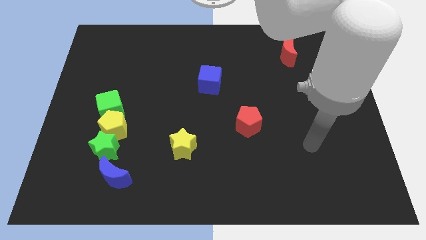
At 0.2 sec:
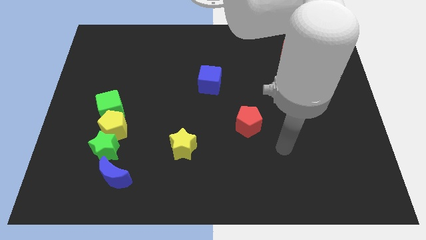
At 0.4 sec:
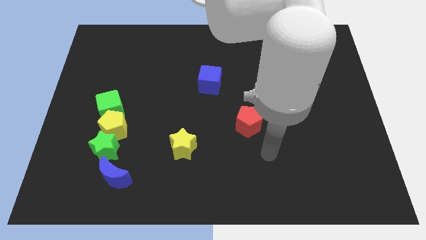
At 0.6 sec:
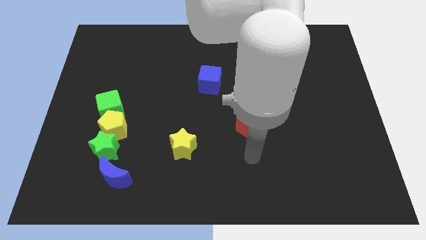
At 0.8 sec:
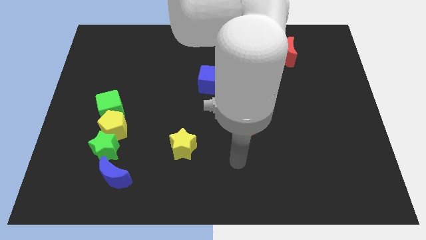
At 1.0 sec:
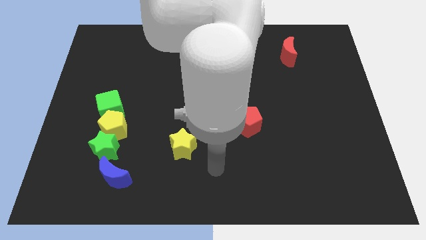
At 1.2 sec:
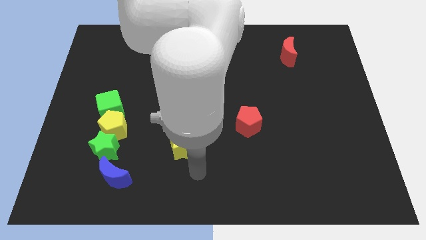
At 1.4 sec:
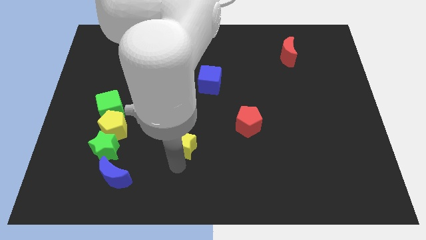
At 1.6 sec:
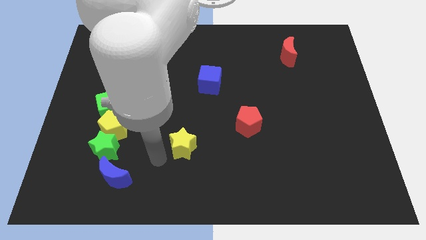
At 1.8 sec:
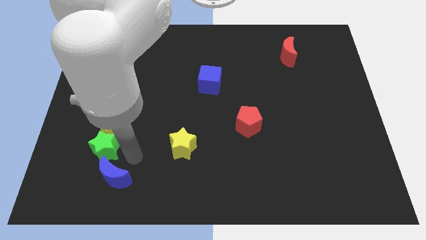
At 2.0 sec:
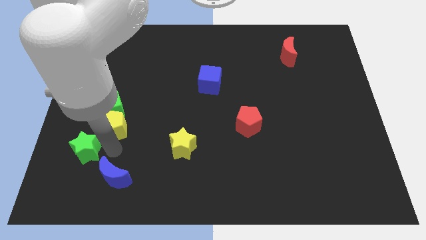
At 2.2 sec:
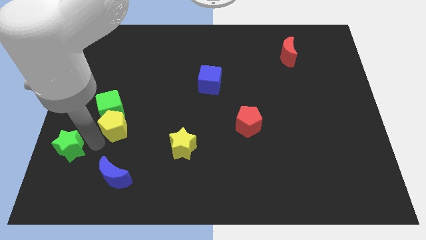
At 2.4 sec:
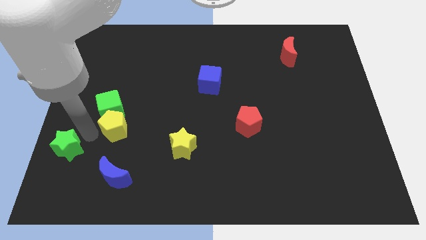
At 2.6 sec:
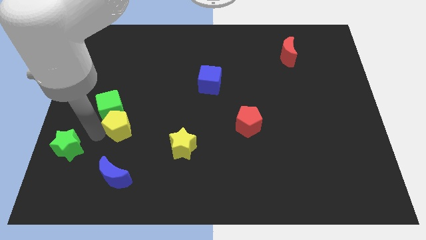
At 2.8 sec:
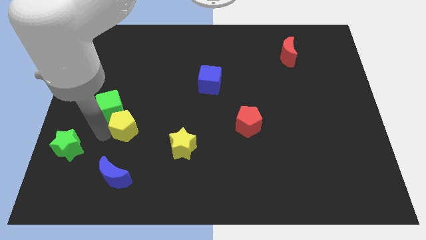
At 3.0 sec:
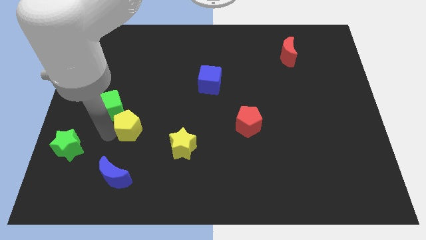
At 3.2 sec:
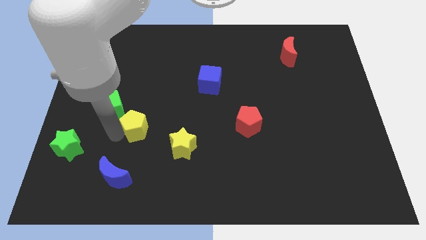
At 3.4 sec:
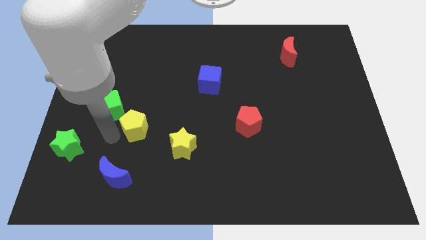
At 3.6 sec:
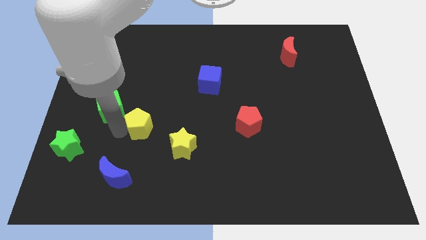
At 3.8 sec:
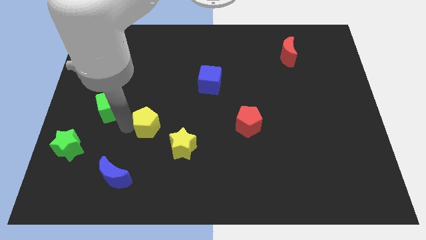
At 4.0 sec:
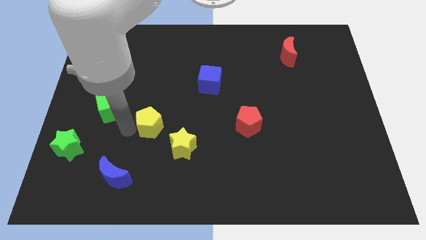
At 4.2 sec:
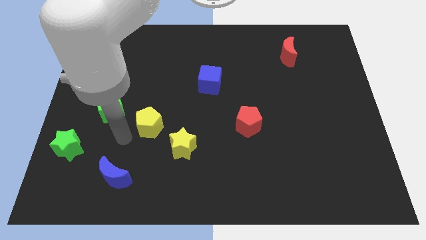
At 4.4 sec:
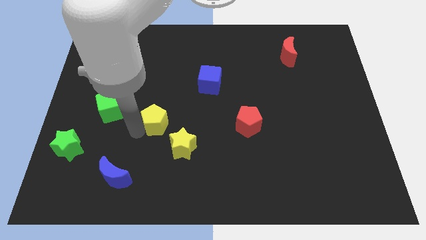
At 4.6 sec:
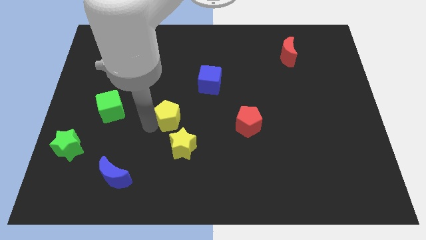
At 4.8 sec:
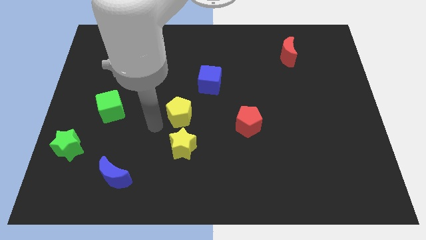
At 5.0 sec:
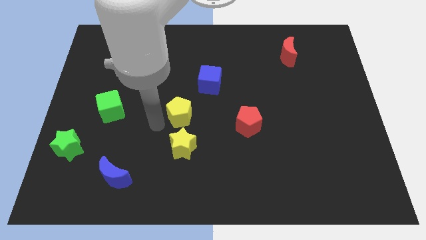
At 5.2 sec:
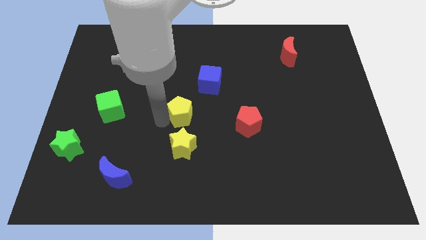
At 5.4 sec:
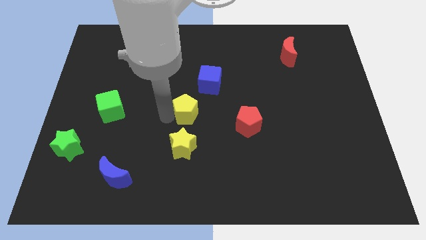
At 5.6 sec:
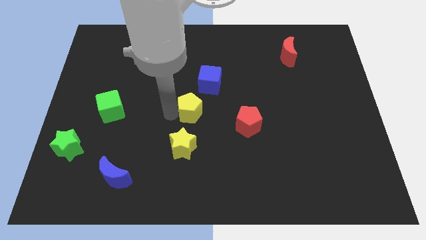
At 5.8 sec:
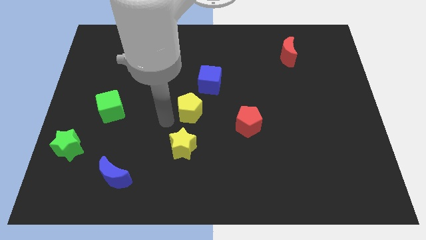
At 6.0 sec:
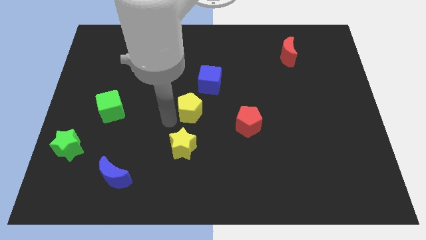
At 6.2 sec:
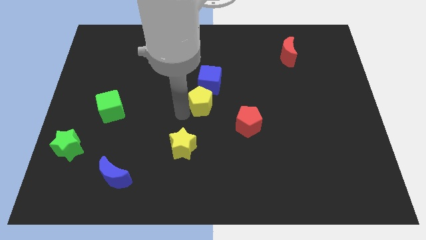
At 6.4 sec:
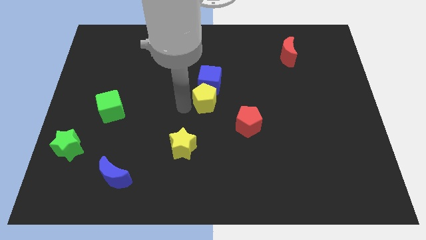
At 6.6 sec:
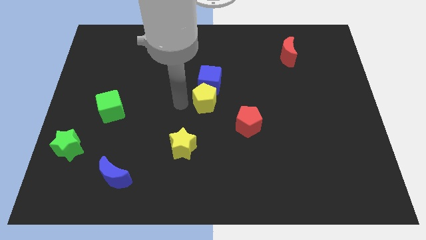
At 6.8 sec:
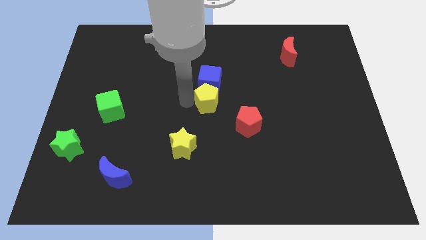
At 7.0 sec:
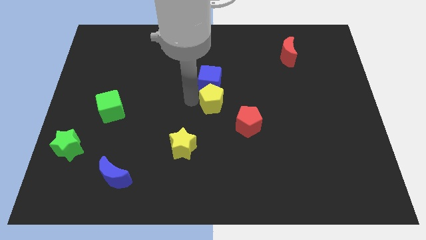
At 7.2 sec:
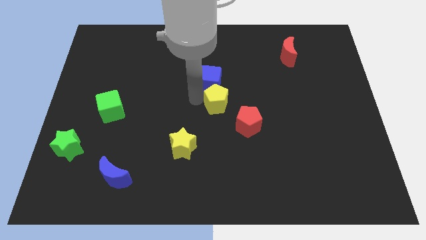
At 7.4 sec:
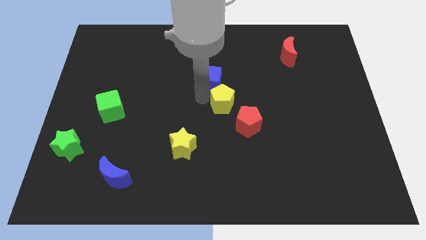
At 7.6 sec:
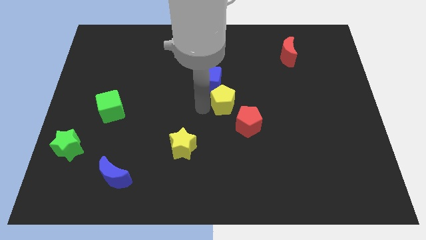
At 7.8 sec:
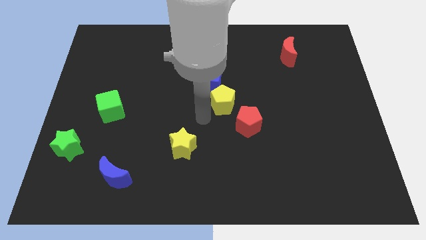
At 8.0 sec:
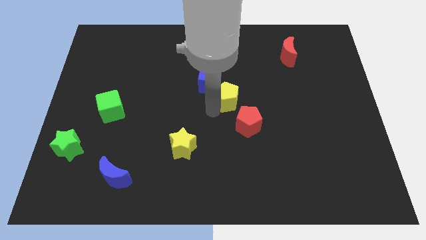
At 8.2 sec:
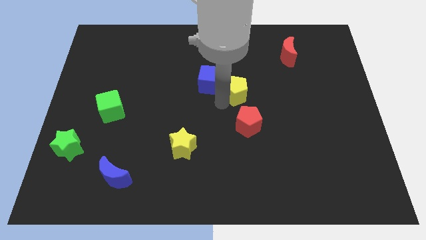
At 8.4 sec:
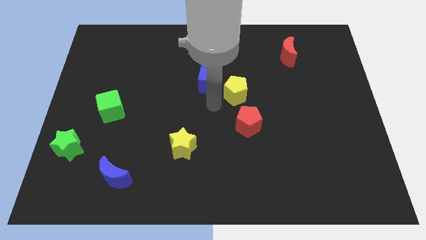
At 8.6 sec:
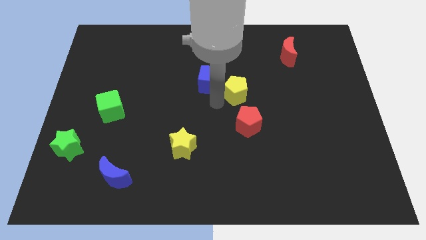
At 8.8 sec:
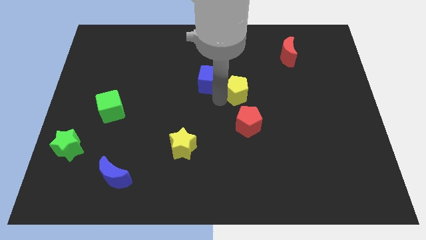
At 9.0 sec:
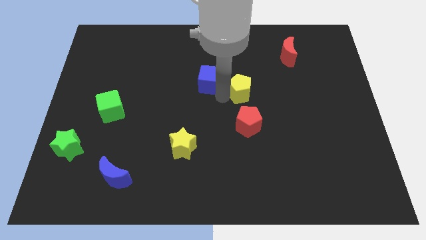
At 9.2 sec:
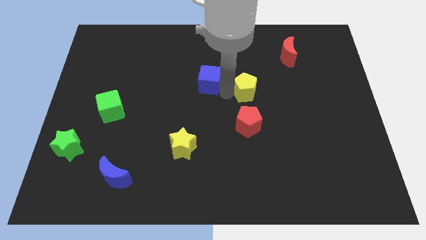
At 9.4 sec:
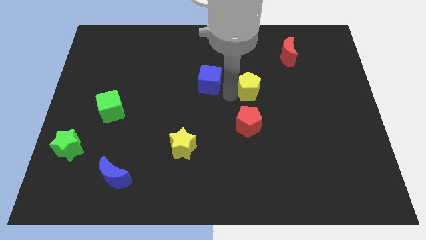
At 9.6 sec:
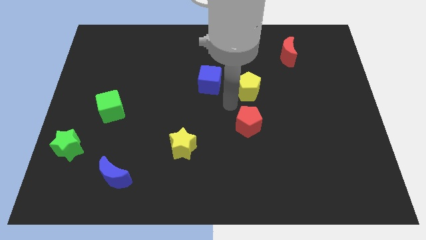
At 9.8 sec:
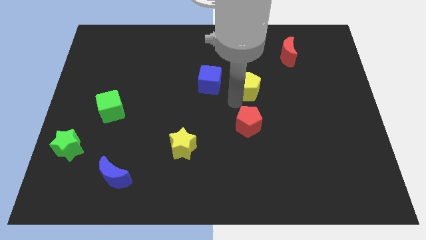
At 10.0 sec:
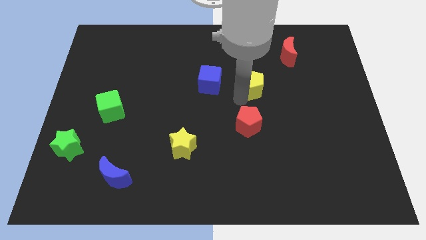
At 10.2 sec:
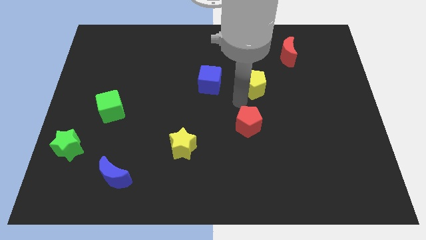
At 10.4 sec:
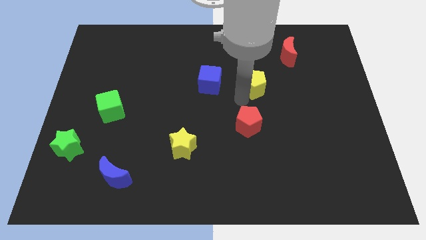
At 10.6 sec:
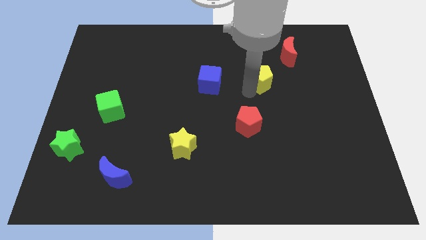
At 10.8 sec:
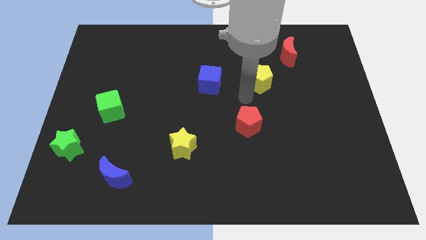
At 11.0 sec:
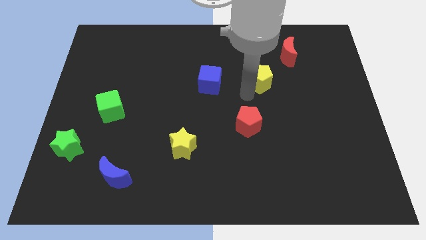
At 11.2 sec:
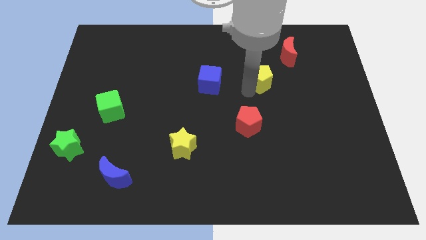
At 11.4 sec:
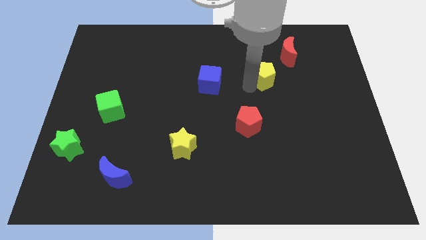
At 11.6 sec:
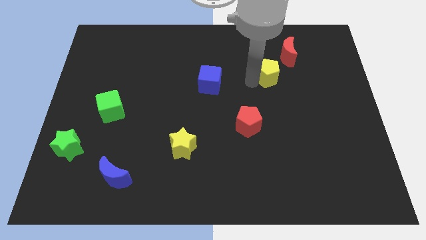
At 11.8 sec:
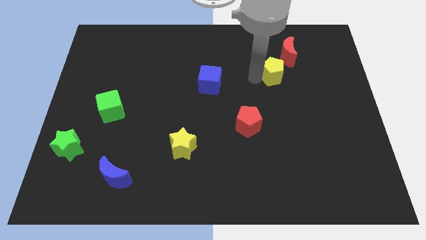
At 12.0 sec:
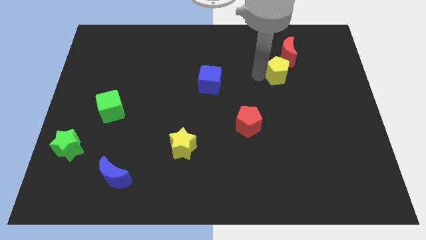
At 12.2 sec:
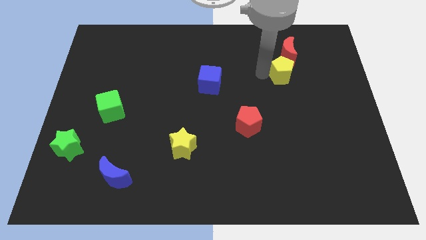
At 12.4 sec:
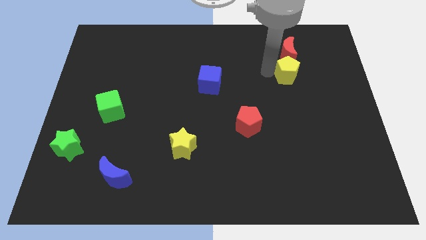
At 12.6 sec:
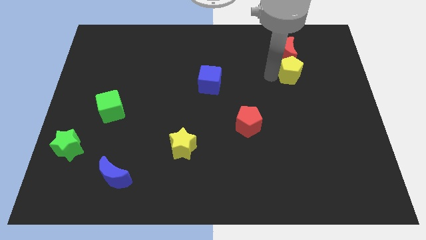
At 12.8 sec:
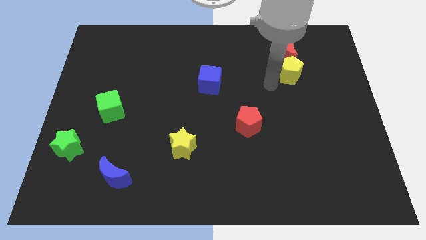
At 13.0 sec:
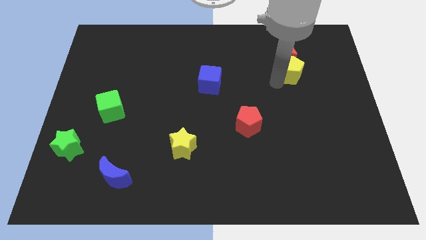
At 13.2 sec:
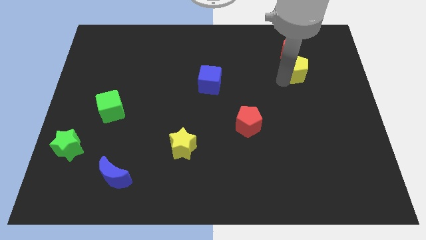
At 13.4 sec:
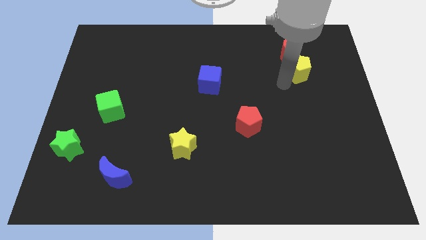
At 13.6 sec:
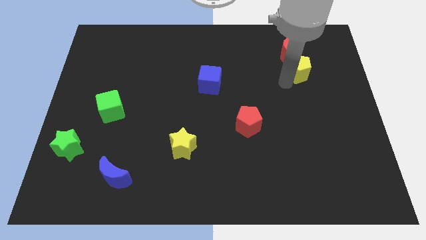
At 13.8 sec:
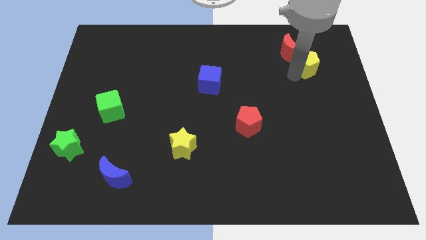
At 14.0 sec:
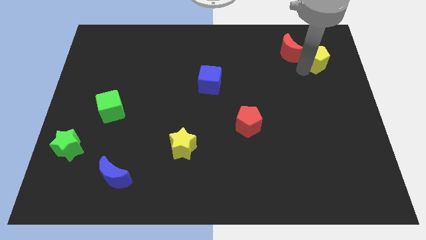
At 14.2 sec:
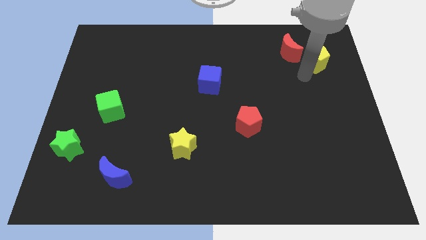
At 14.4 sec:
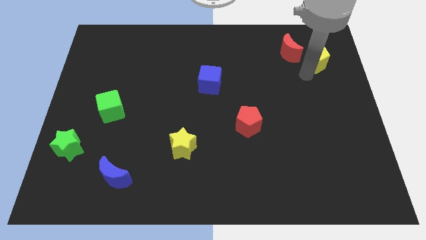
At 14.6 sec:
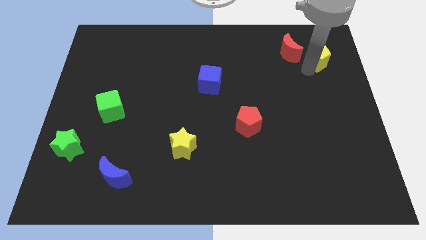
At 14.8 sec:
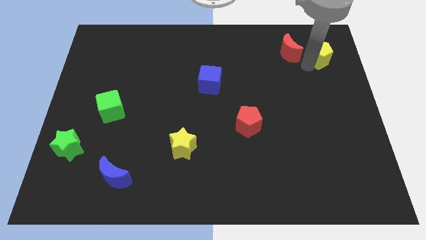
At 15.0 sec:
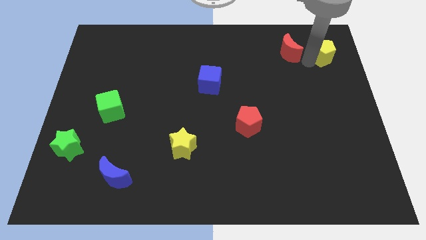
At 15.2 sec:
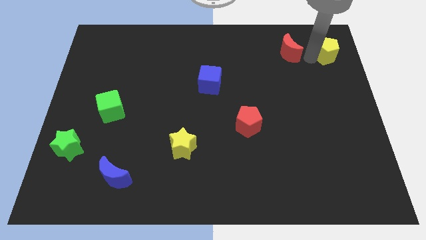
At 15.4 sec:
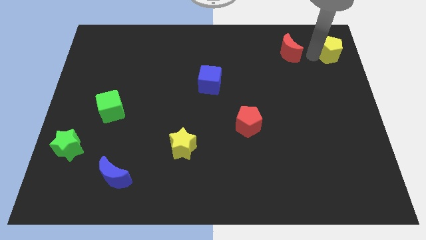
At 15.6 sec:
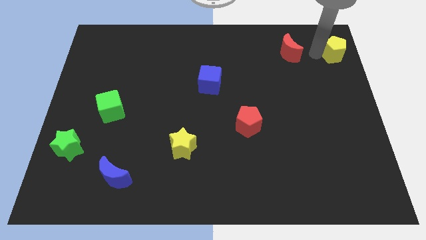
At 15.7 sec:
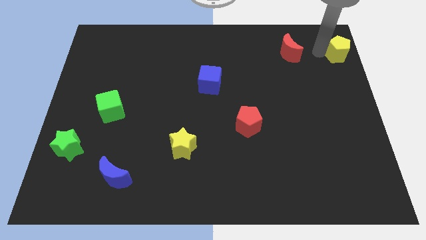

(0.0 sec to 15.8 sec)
slide the yellow pentagon to the upper right corner
